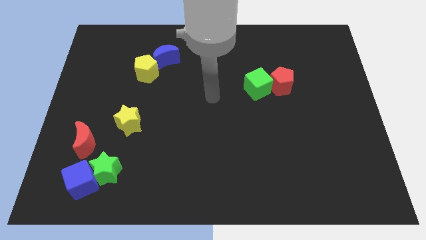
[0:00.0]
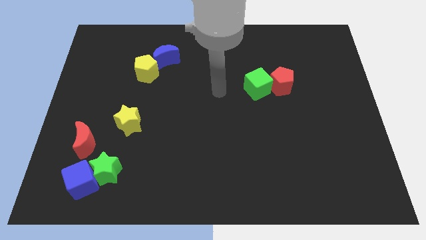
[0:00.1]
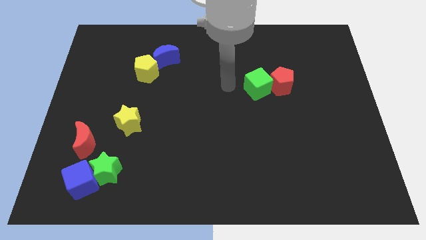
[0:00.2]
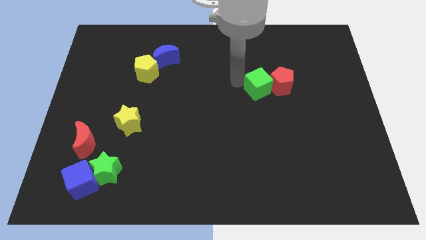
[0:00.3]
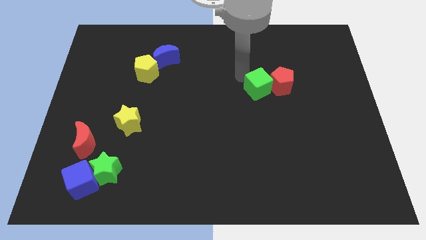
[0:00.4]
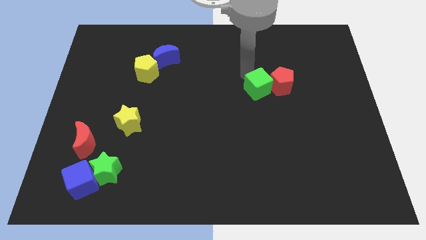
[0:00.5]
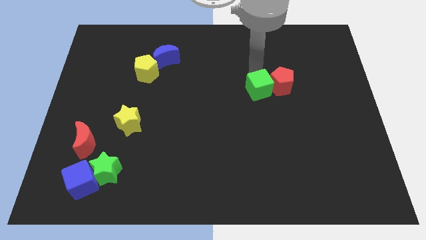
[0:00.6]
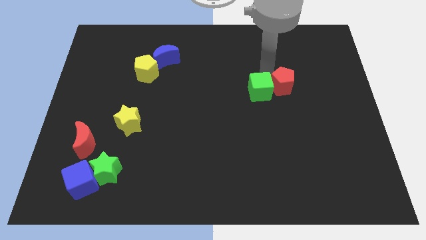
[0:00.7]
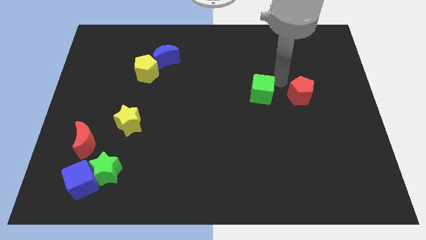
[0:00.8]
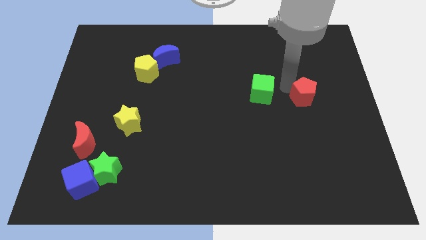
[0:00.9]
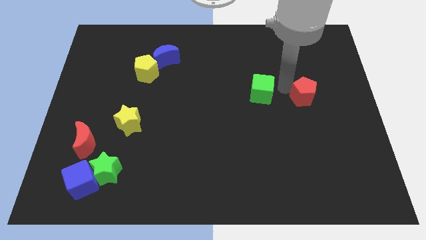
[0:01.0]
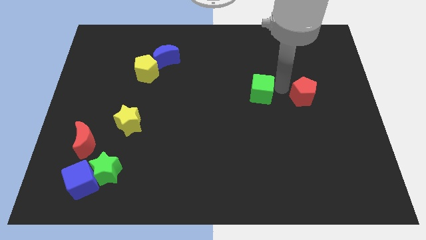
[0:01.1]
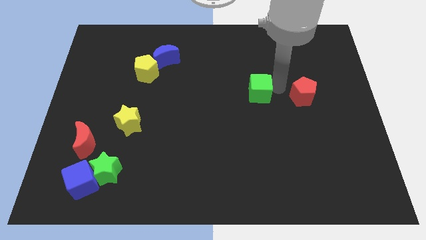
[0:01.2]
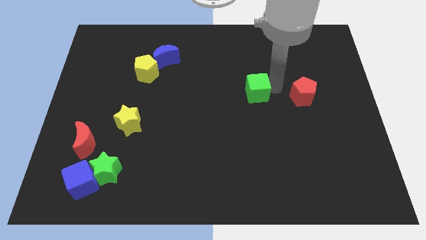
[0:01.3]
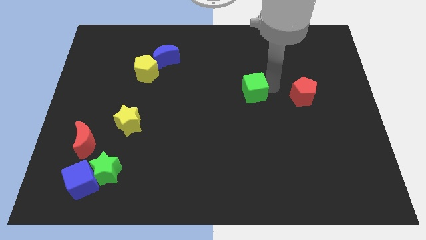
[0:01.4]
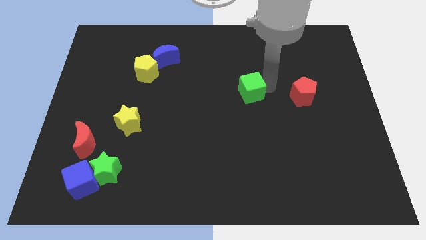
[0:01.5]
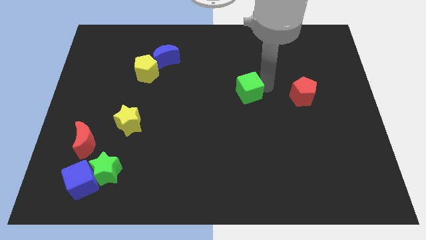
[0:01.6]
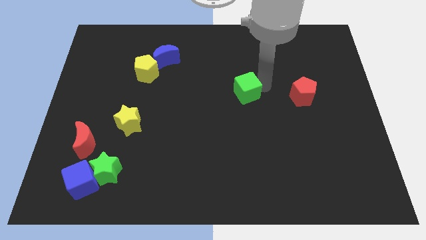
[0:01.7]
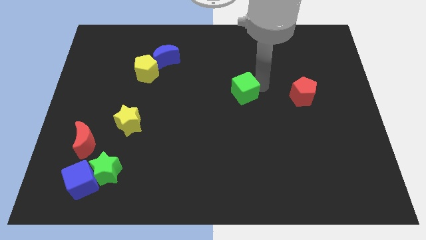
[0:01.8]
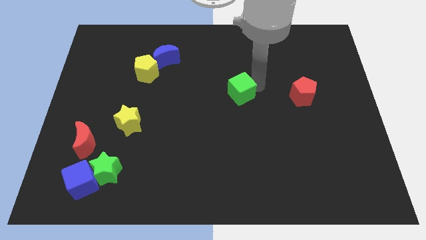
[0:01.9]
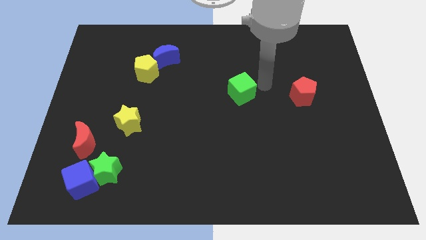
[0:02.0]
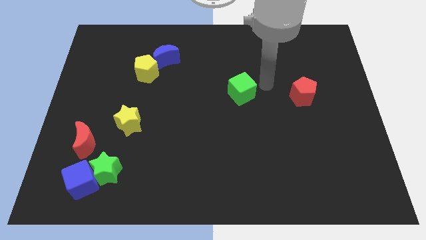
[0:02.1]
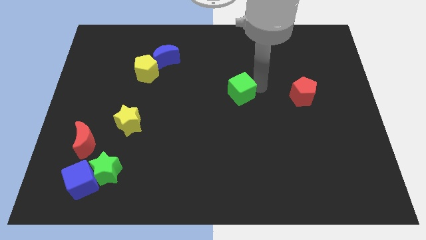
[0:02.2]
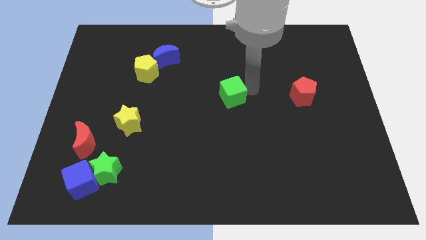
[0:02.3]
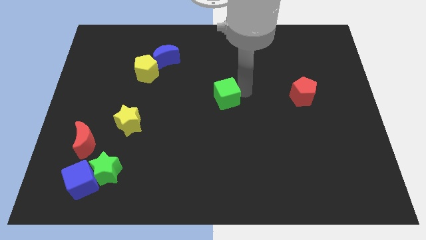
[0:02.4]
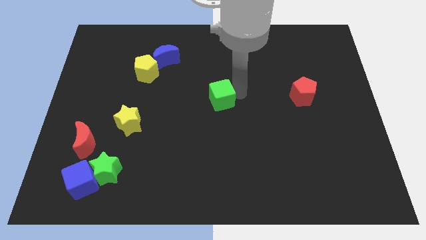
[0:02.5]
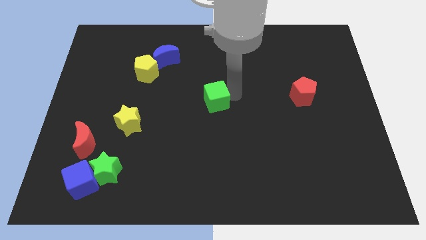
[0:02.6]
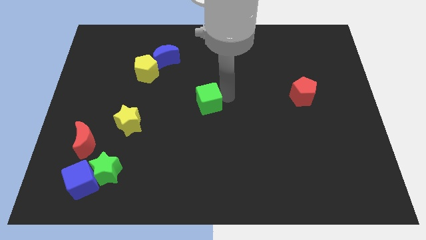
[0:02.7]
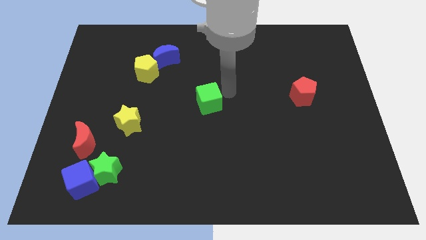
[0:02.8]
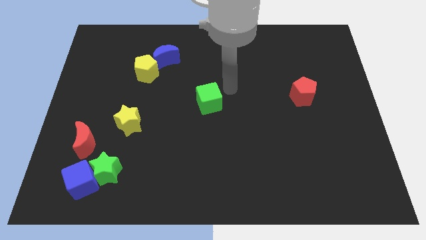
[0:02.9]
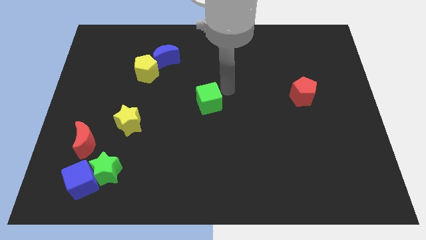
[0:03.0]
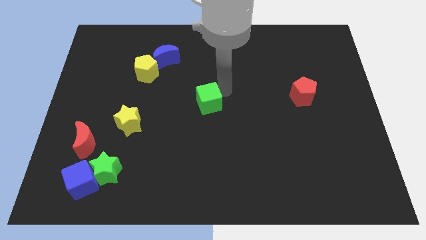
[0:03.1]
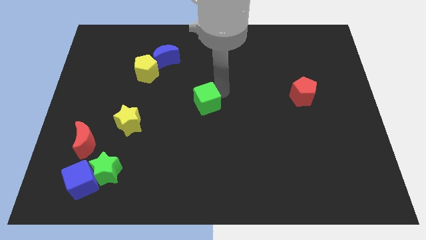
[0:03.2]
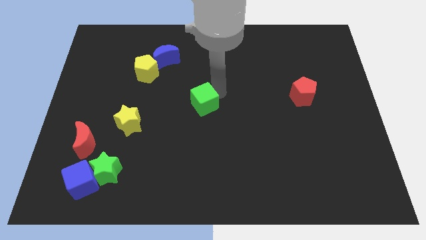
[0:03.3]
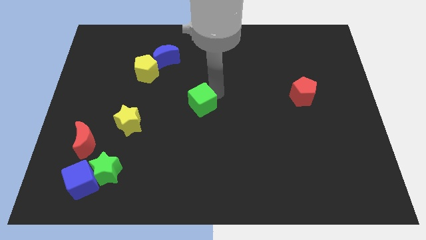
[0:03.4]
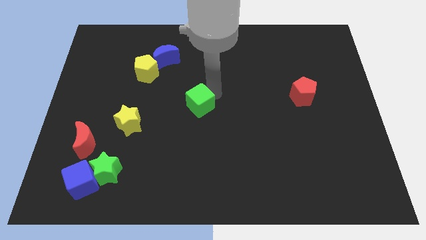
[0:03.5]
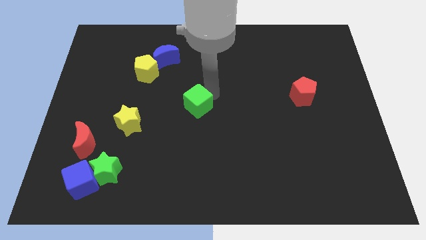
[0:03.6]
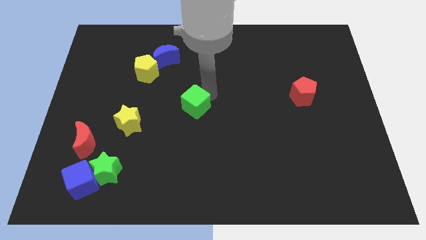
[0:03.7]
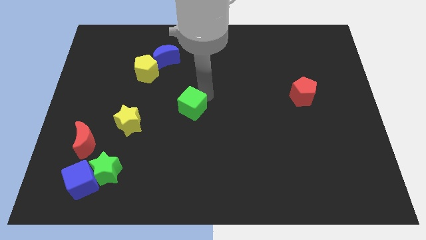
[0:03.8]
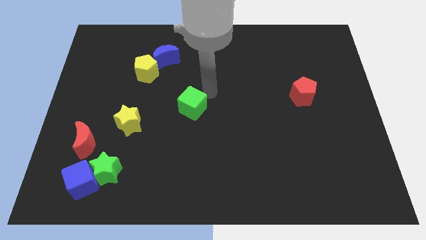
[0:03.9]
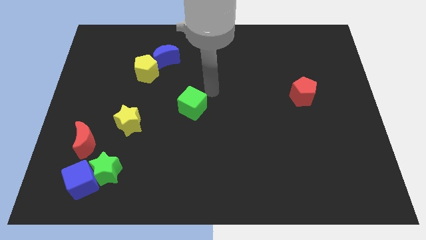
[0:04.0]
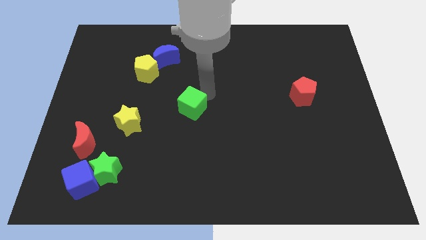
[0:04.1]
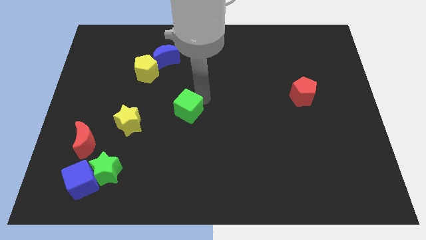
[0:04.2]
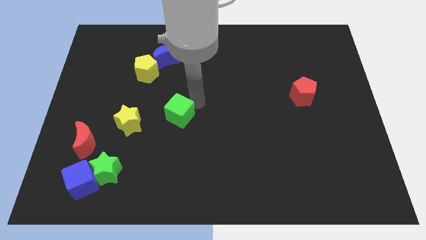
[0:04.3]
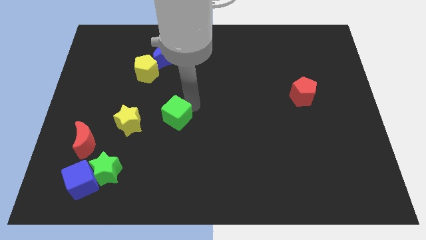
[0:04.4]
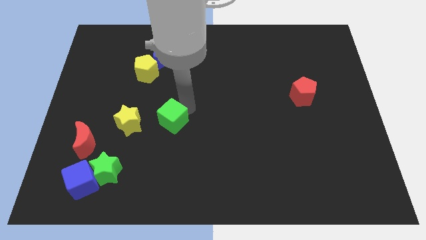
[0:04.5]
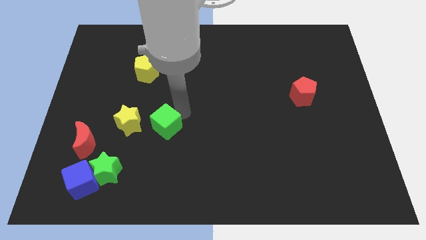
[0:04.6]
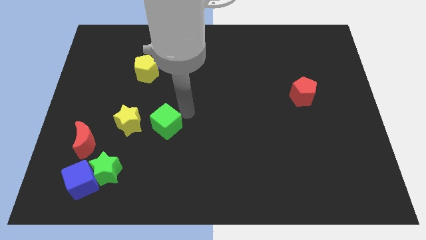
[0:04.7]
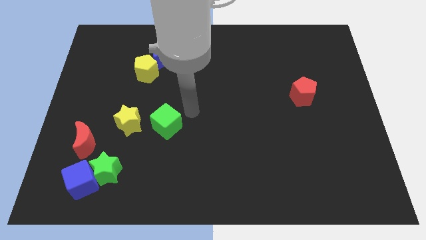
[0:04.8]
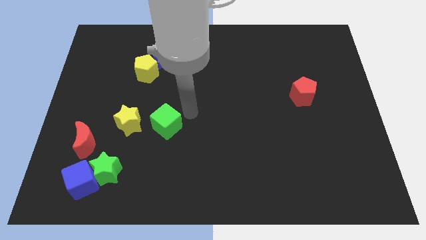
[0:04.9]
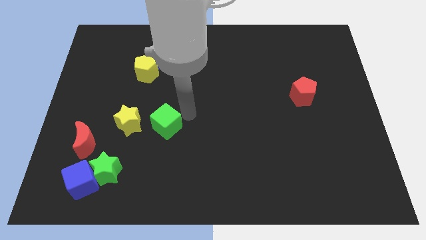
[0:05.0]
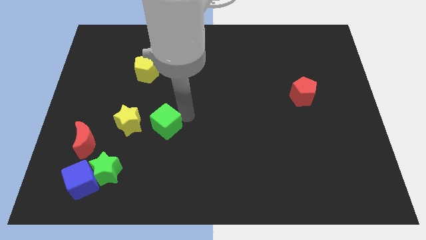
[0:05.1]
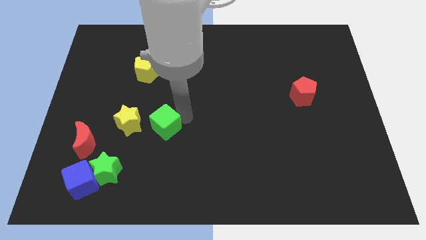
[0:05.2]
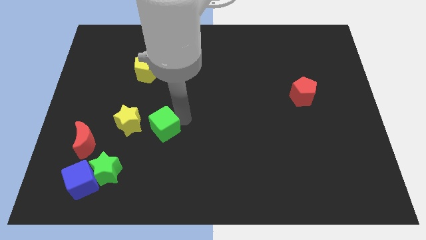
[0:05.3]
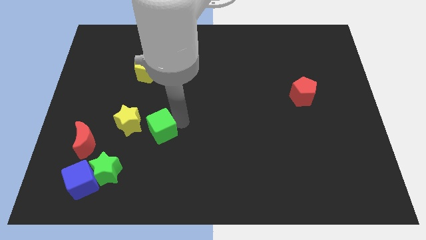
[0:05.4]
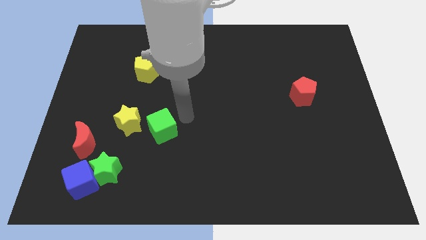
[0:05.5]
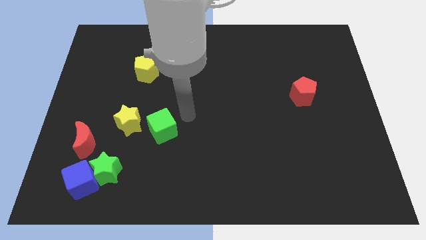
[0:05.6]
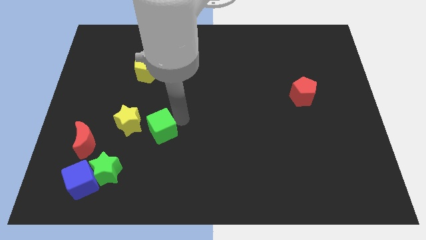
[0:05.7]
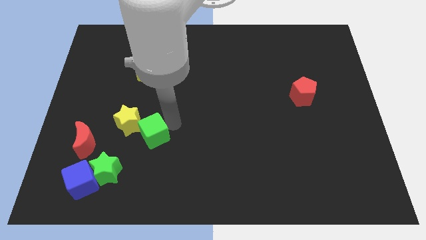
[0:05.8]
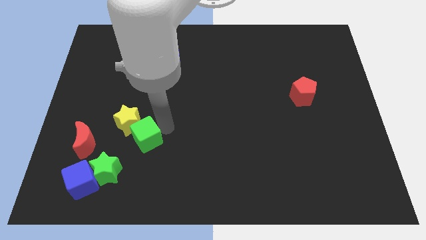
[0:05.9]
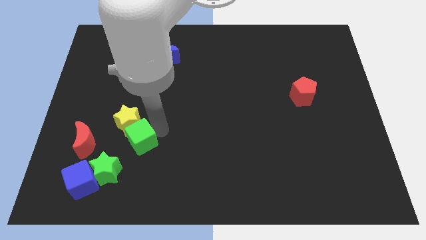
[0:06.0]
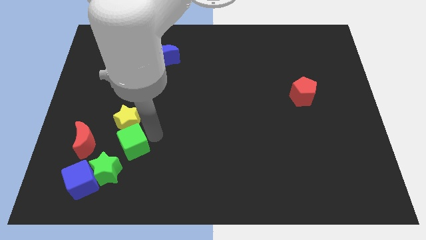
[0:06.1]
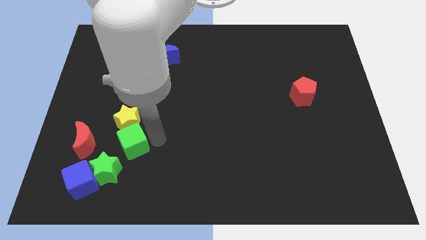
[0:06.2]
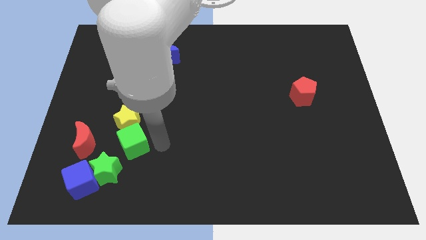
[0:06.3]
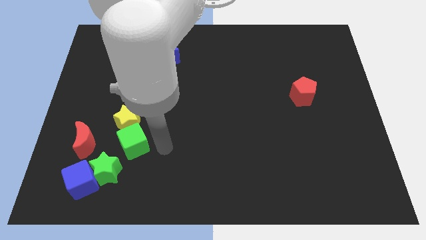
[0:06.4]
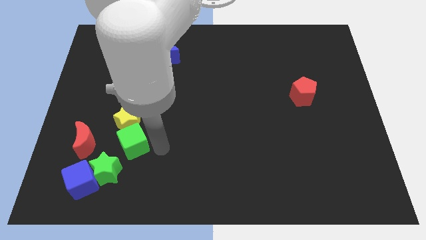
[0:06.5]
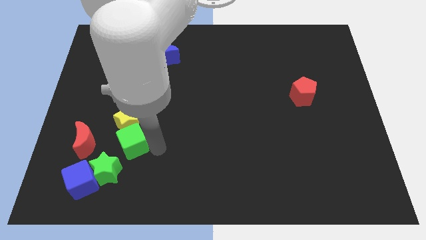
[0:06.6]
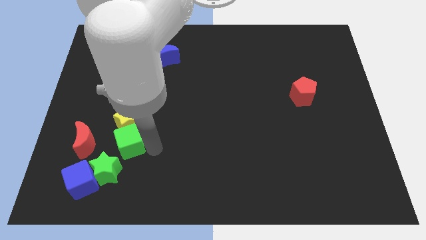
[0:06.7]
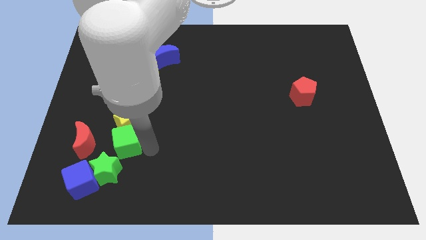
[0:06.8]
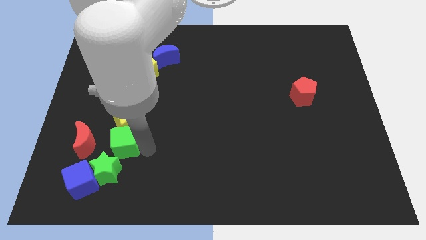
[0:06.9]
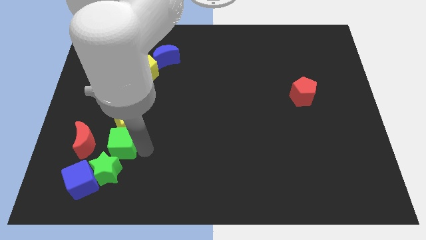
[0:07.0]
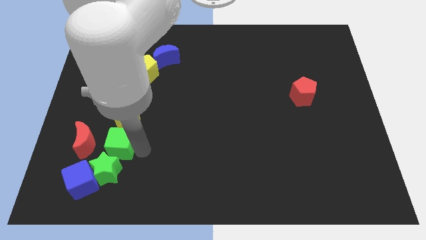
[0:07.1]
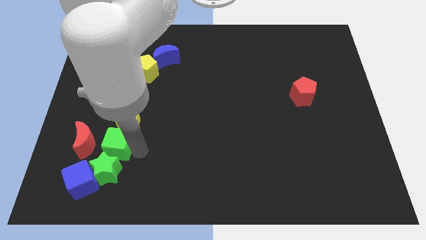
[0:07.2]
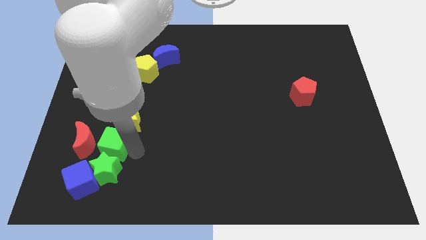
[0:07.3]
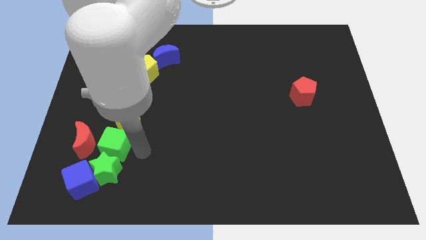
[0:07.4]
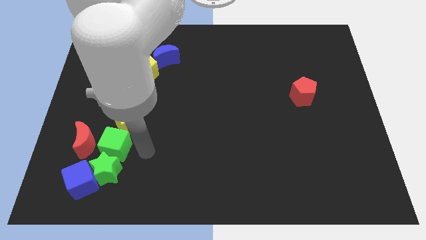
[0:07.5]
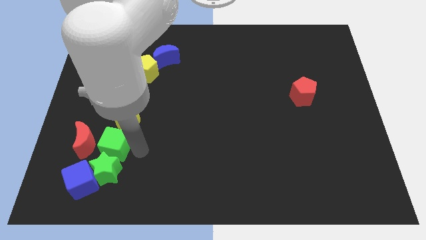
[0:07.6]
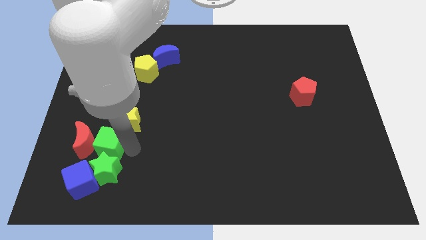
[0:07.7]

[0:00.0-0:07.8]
put the green cube next to the red moon

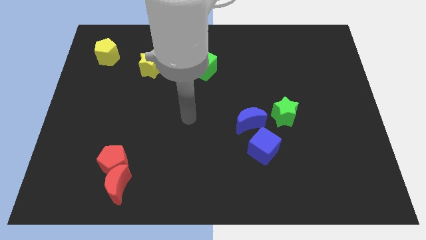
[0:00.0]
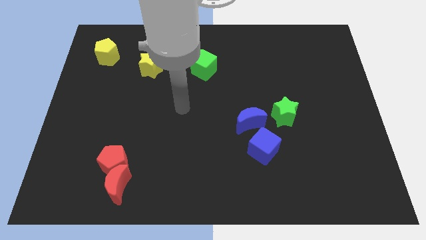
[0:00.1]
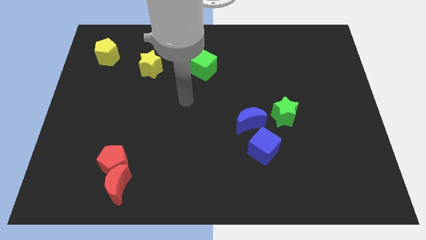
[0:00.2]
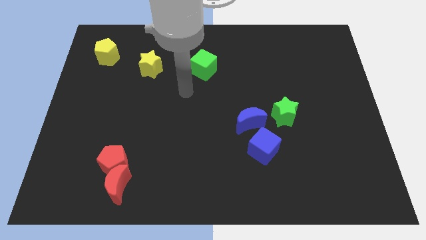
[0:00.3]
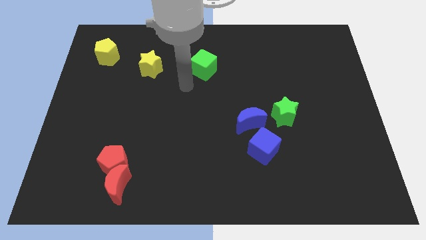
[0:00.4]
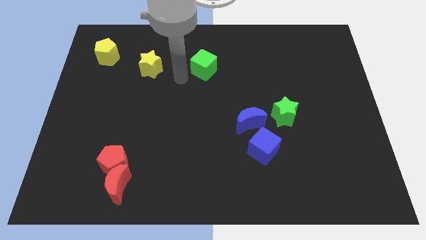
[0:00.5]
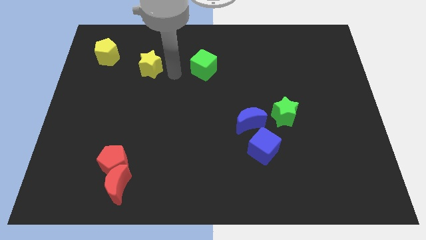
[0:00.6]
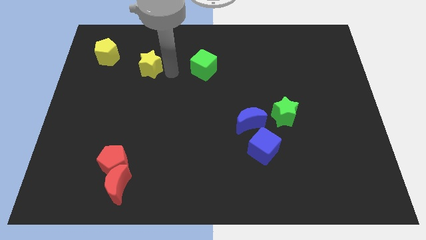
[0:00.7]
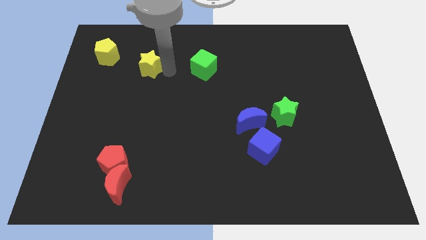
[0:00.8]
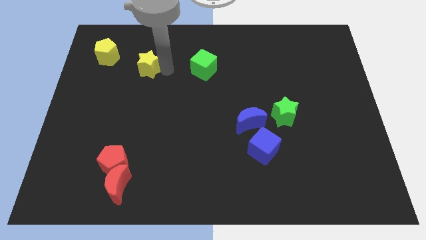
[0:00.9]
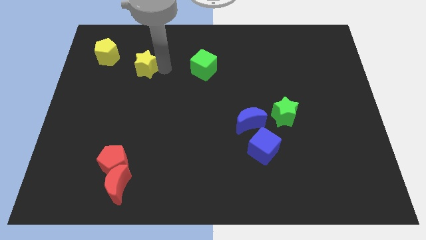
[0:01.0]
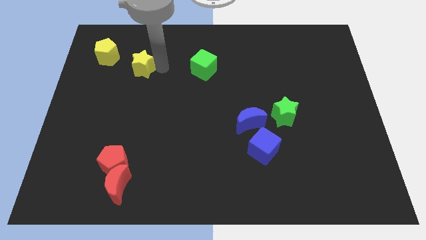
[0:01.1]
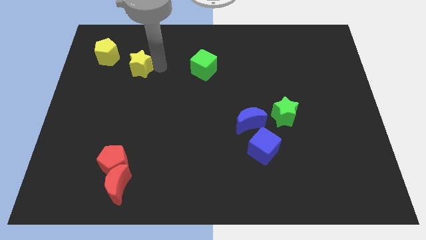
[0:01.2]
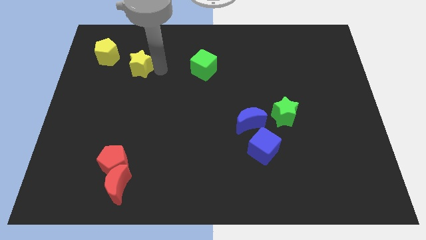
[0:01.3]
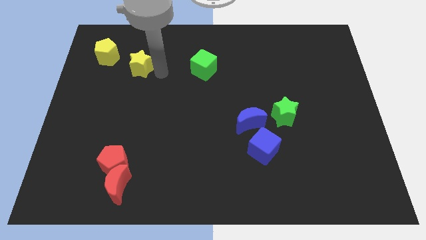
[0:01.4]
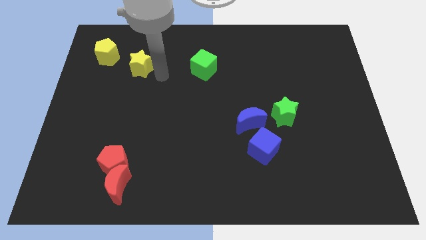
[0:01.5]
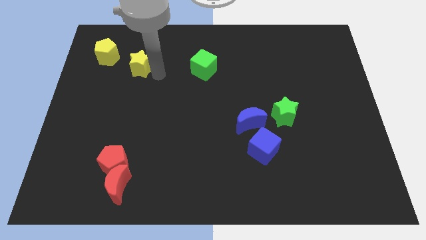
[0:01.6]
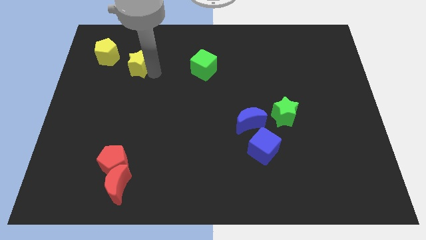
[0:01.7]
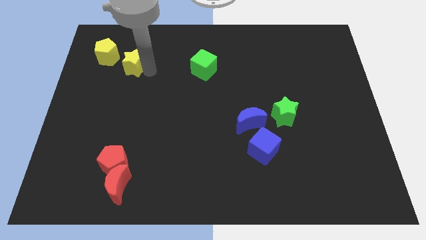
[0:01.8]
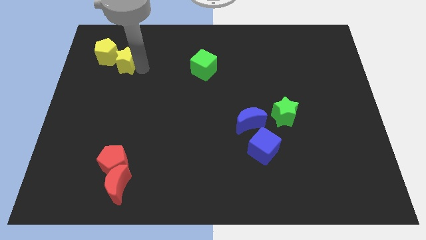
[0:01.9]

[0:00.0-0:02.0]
move the yellow star towards the yellow pentagon
